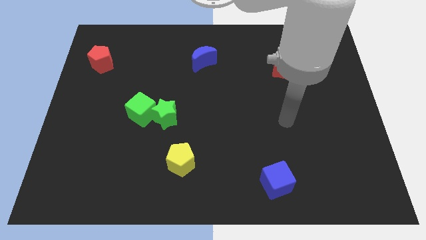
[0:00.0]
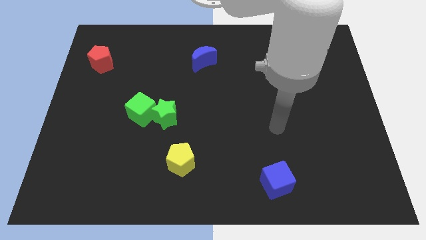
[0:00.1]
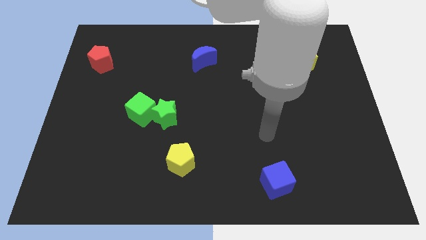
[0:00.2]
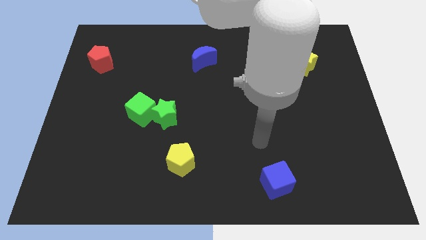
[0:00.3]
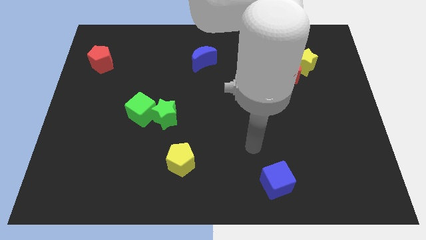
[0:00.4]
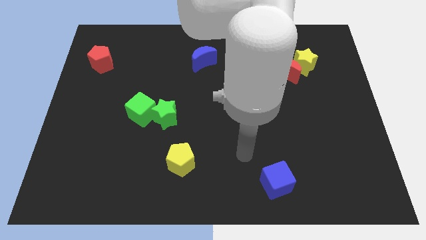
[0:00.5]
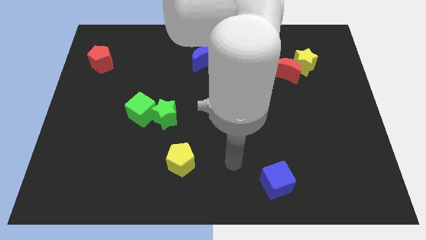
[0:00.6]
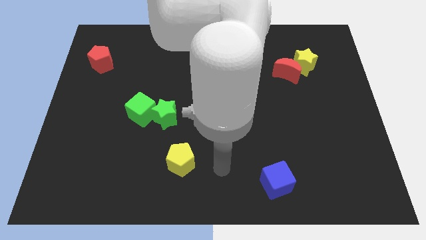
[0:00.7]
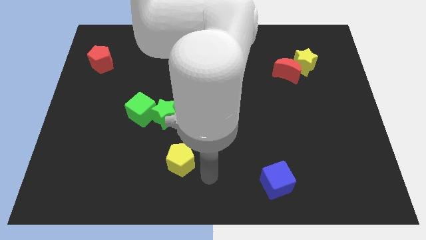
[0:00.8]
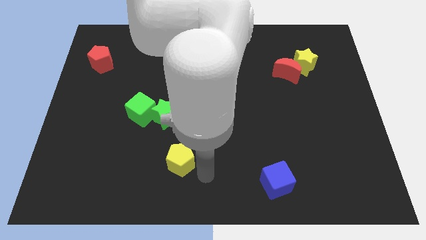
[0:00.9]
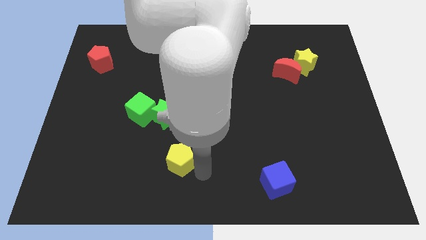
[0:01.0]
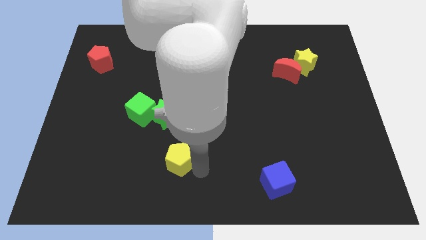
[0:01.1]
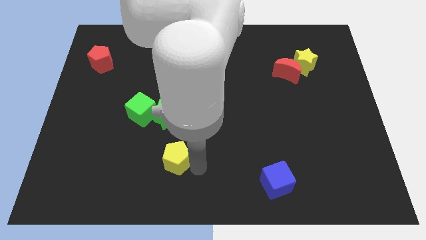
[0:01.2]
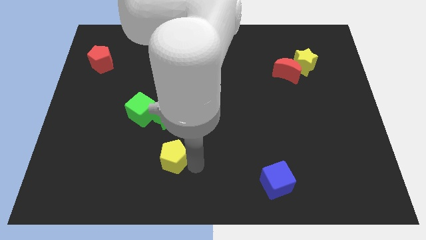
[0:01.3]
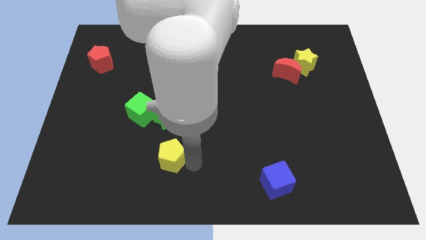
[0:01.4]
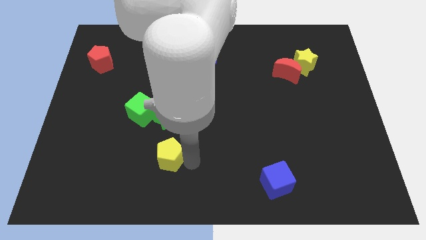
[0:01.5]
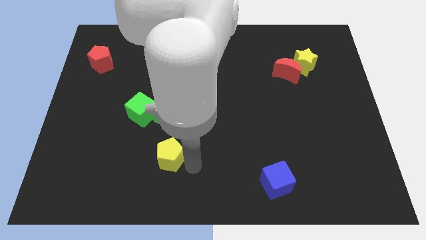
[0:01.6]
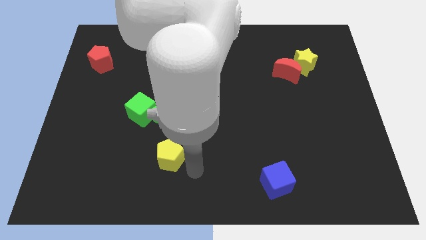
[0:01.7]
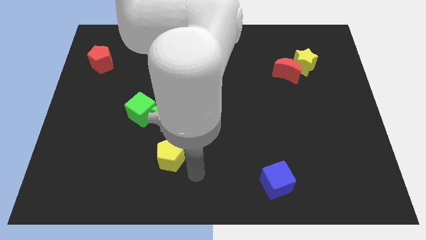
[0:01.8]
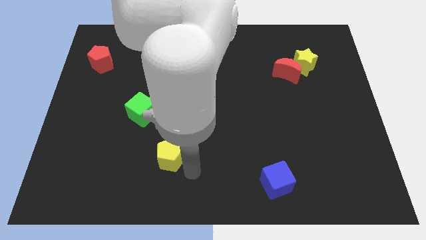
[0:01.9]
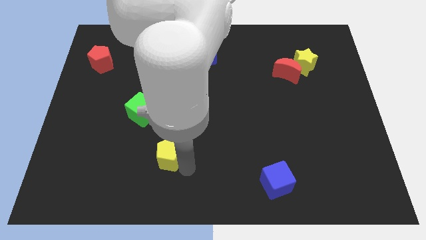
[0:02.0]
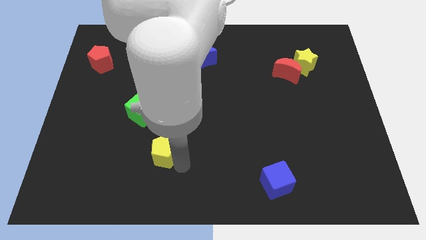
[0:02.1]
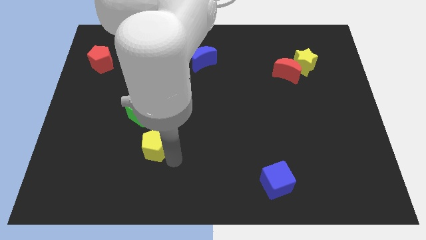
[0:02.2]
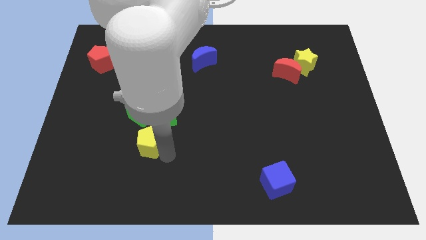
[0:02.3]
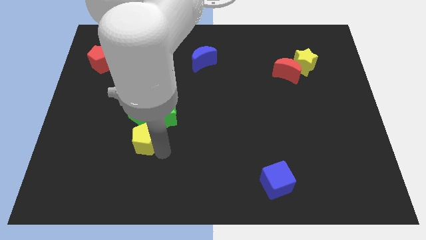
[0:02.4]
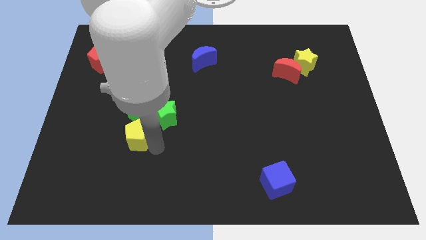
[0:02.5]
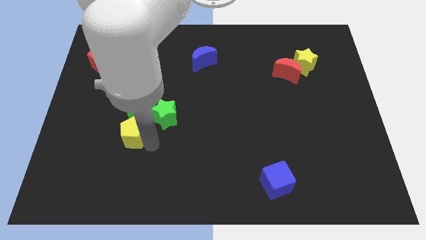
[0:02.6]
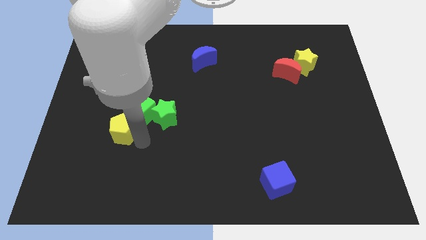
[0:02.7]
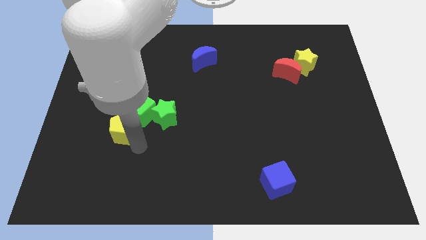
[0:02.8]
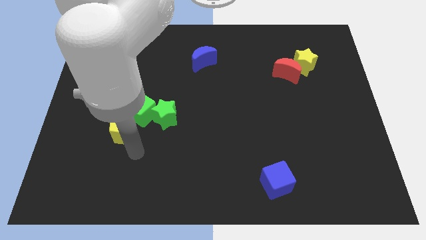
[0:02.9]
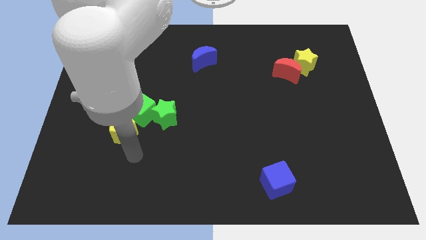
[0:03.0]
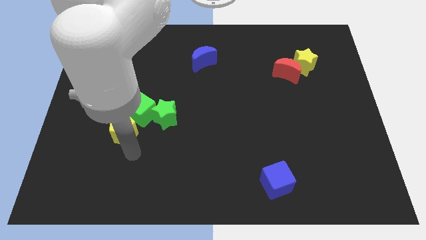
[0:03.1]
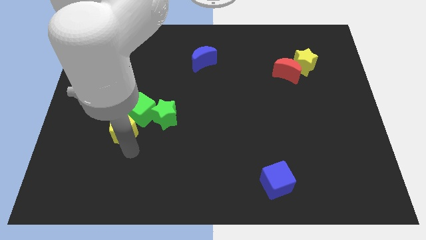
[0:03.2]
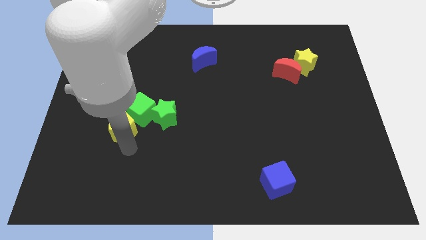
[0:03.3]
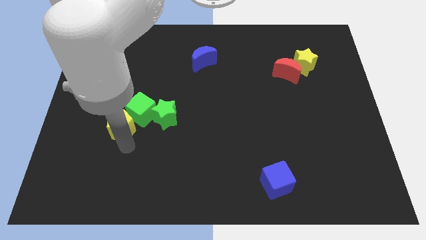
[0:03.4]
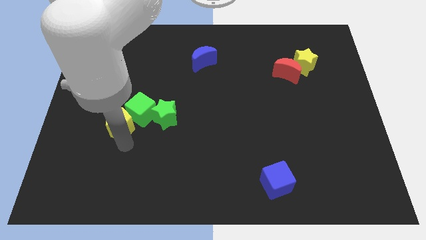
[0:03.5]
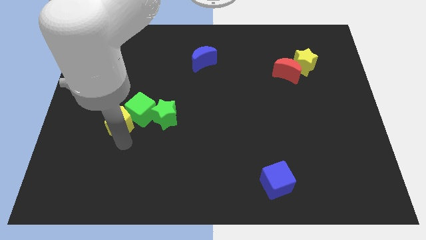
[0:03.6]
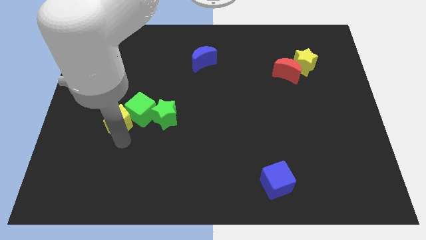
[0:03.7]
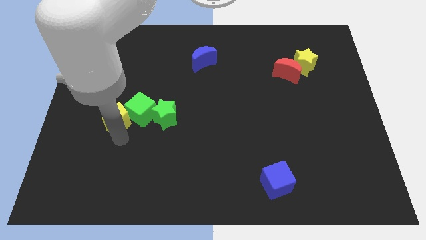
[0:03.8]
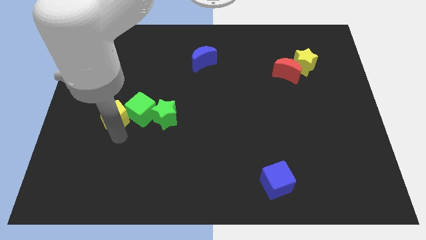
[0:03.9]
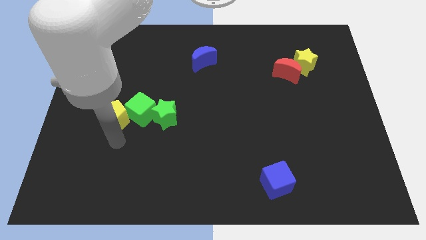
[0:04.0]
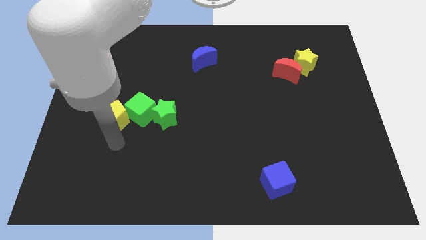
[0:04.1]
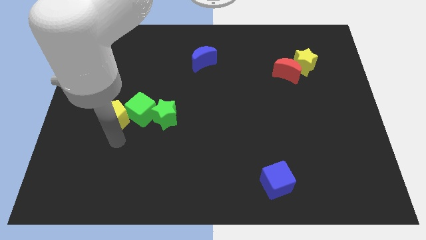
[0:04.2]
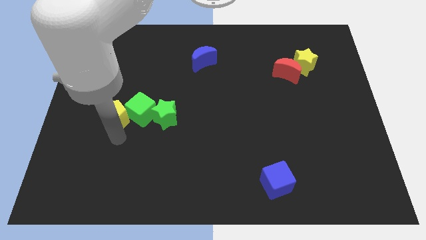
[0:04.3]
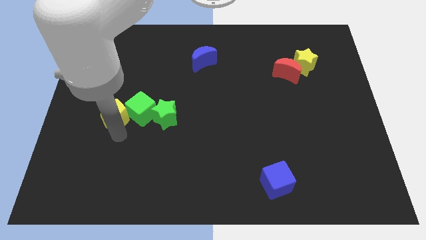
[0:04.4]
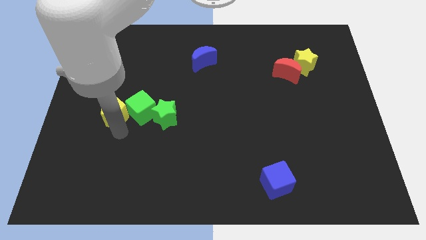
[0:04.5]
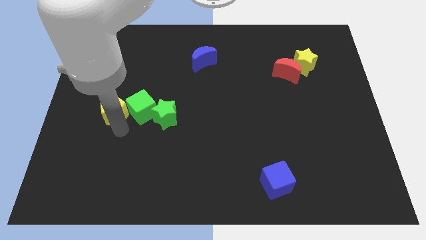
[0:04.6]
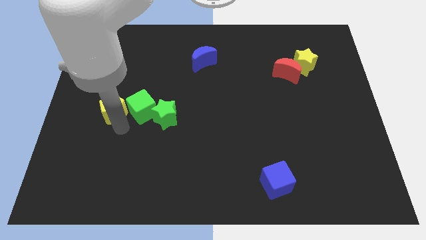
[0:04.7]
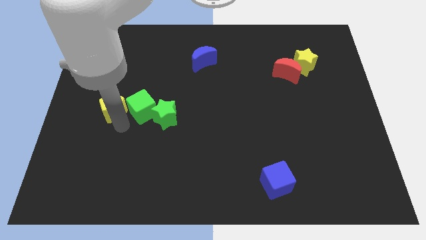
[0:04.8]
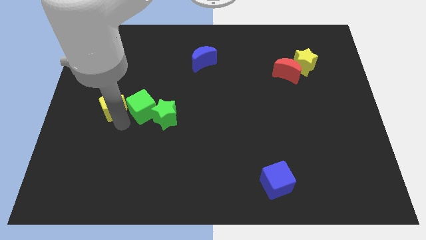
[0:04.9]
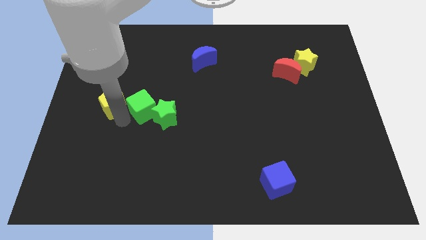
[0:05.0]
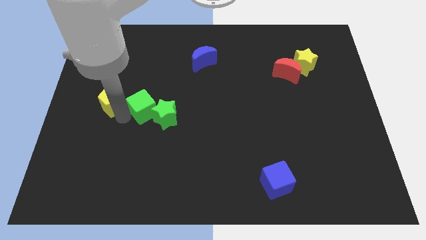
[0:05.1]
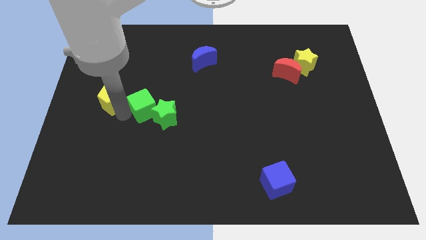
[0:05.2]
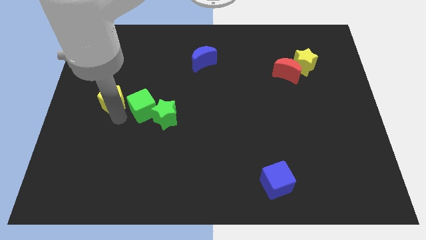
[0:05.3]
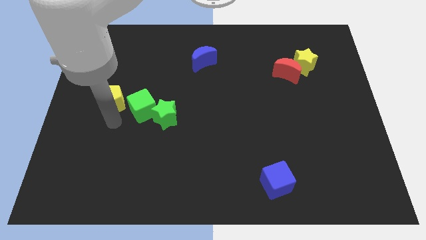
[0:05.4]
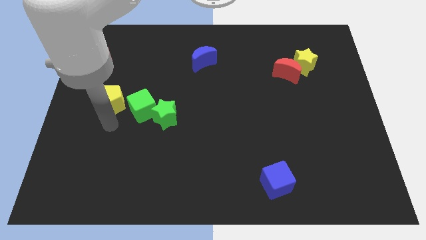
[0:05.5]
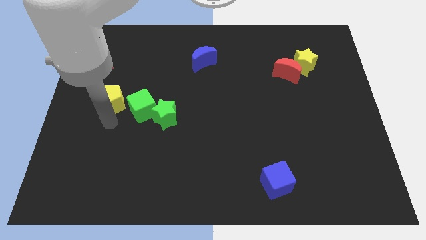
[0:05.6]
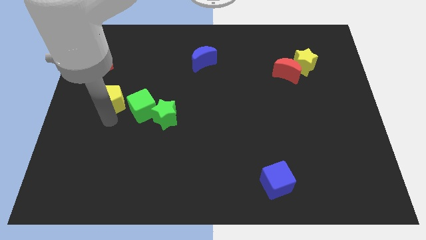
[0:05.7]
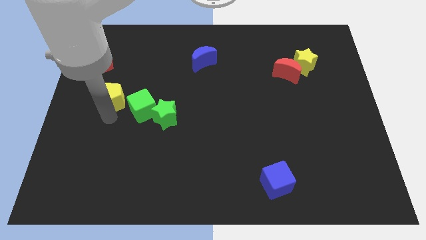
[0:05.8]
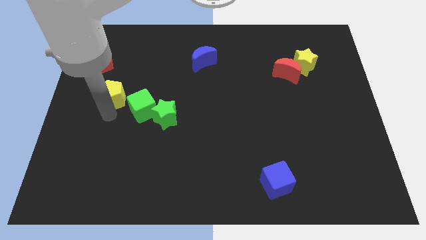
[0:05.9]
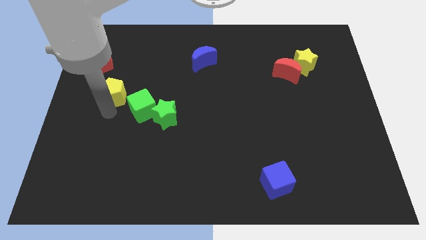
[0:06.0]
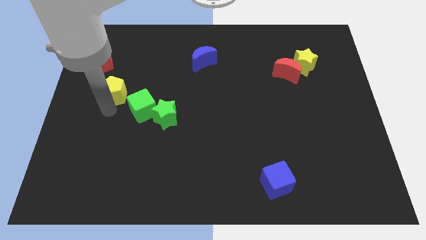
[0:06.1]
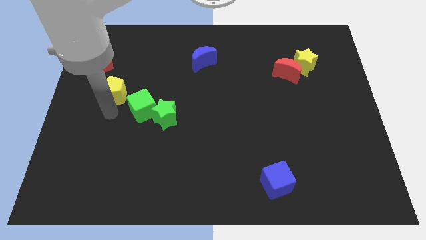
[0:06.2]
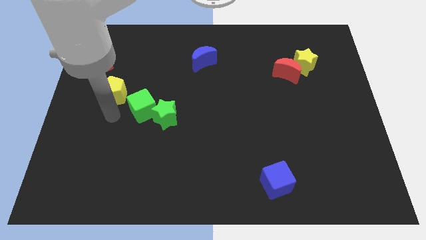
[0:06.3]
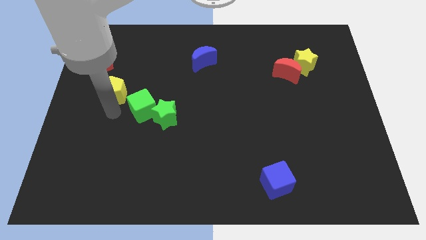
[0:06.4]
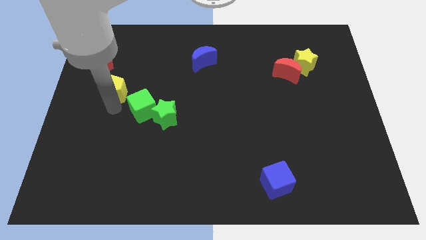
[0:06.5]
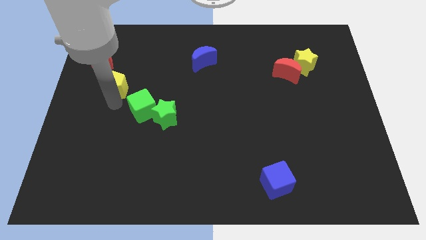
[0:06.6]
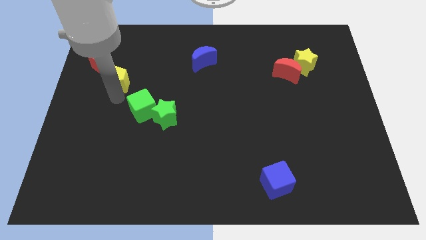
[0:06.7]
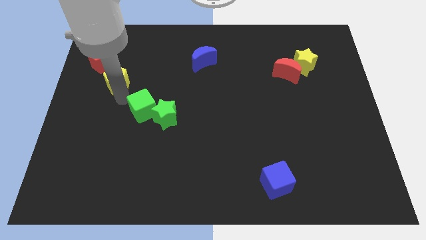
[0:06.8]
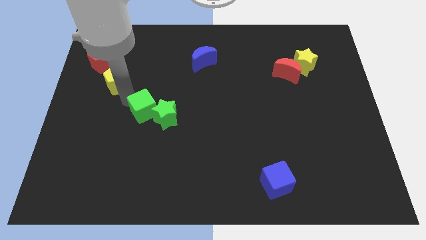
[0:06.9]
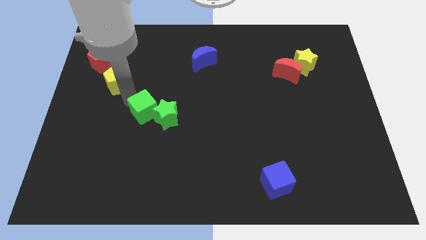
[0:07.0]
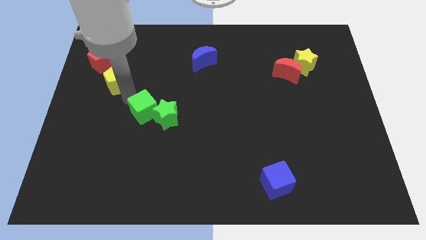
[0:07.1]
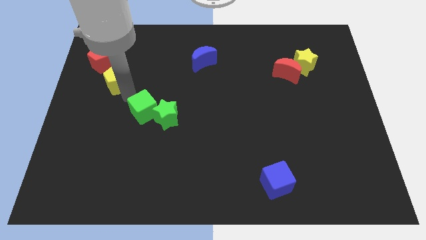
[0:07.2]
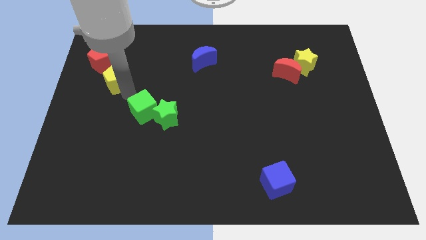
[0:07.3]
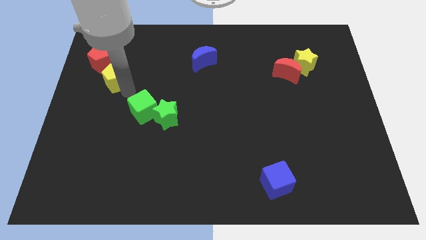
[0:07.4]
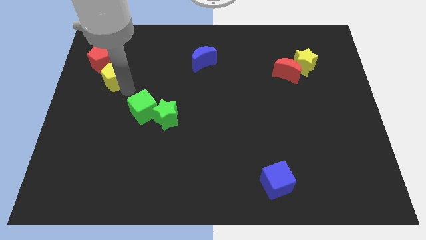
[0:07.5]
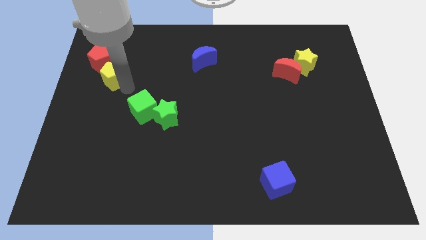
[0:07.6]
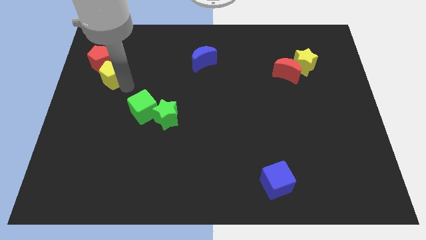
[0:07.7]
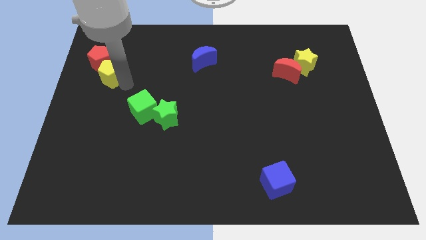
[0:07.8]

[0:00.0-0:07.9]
push the yellow pentagon close to the red pentagon
